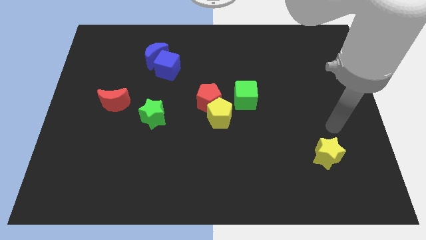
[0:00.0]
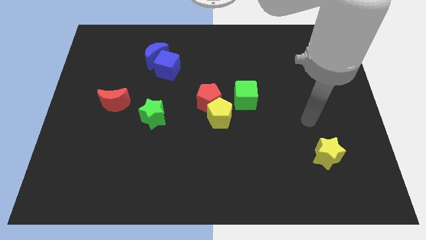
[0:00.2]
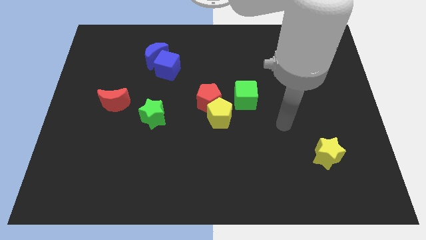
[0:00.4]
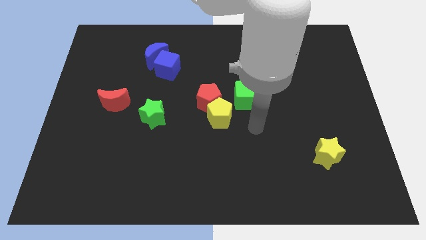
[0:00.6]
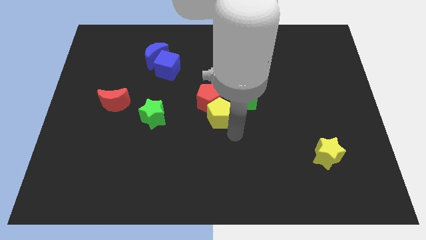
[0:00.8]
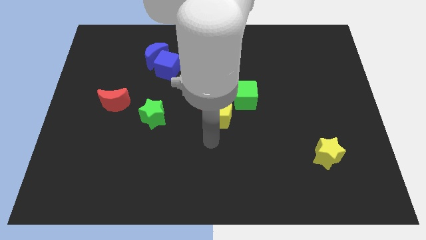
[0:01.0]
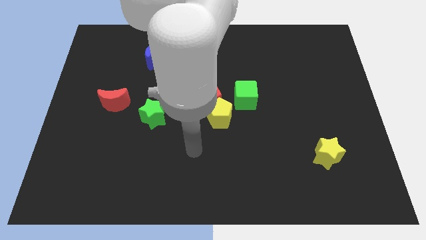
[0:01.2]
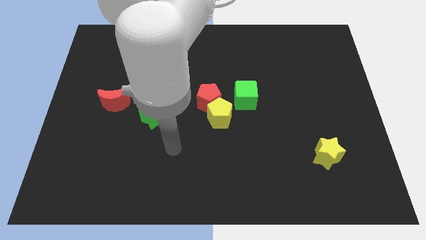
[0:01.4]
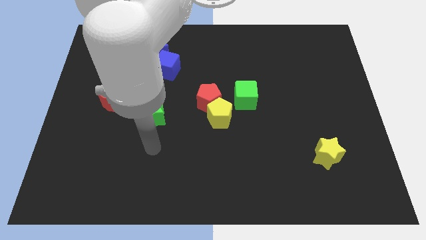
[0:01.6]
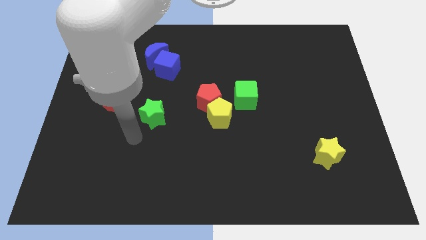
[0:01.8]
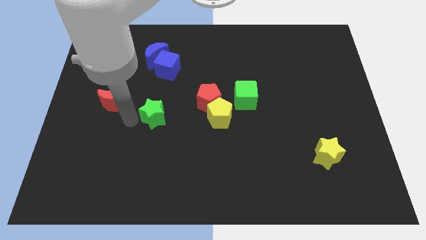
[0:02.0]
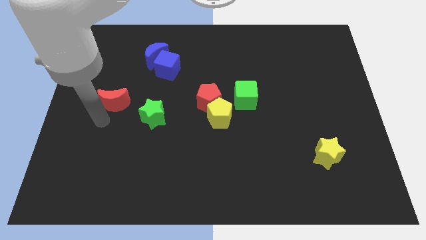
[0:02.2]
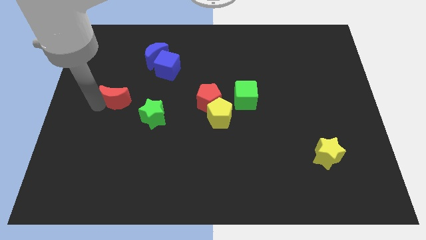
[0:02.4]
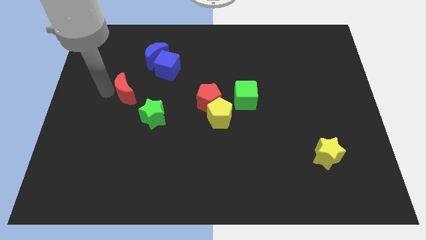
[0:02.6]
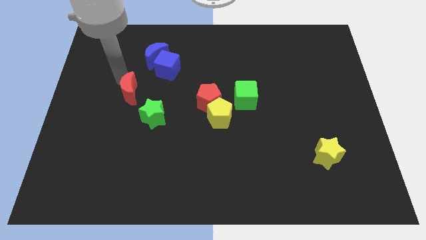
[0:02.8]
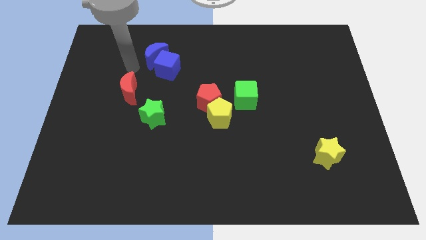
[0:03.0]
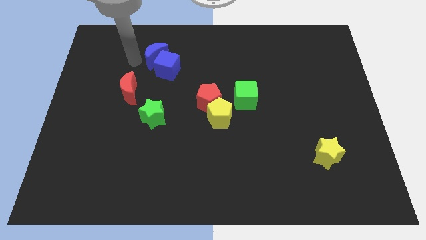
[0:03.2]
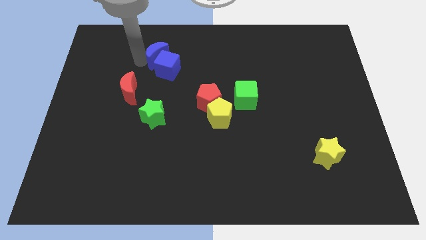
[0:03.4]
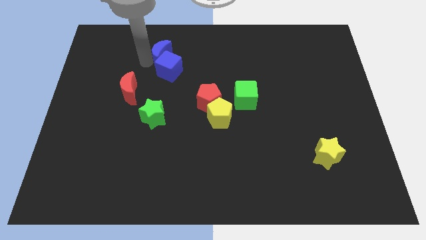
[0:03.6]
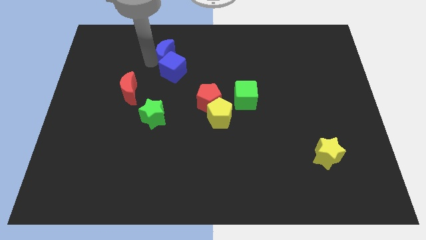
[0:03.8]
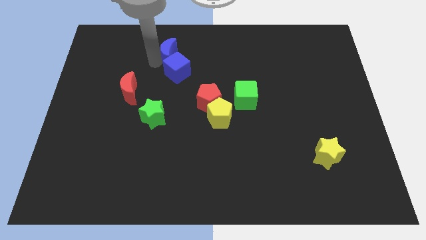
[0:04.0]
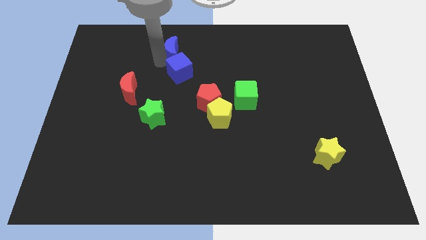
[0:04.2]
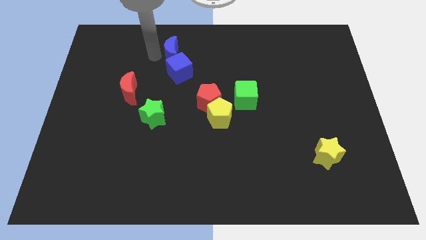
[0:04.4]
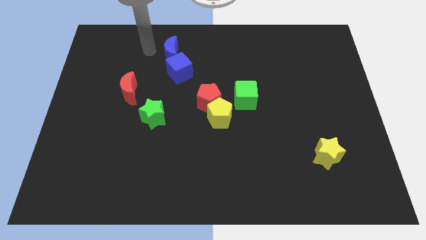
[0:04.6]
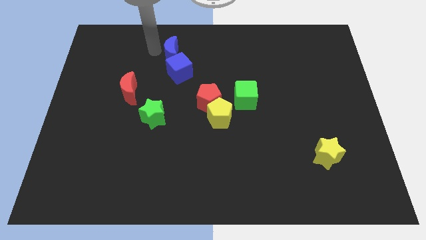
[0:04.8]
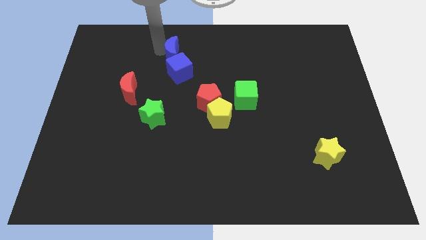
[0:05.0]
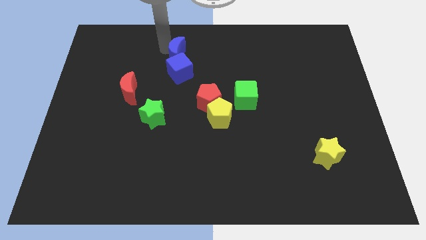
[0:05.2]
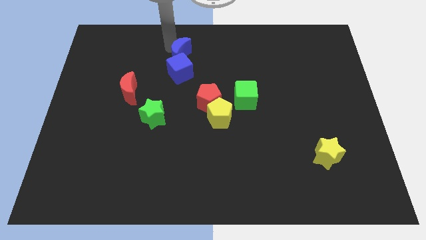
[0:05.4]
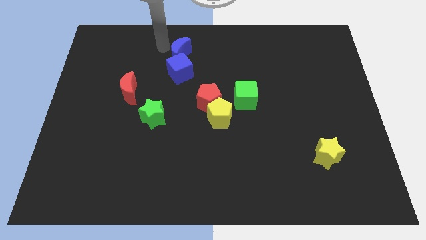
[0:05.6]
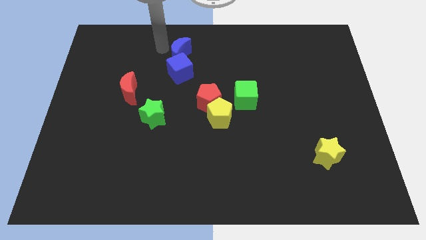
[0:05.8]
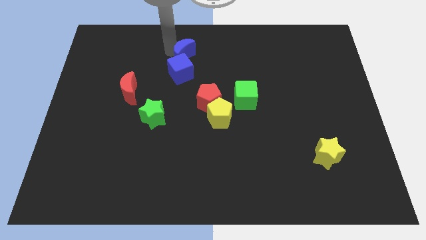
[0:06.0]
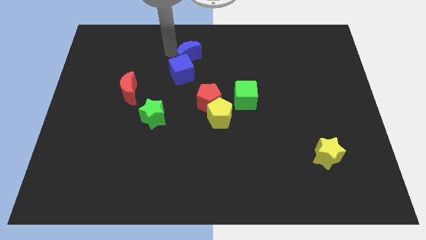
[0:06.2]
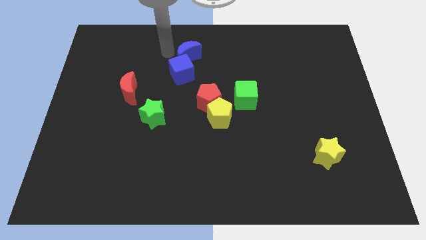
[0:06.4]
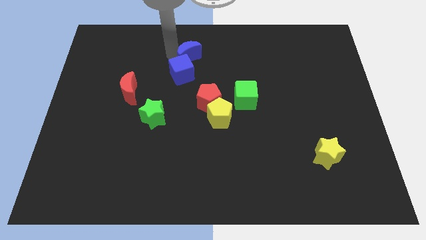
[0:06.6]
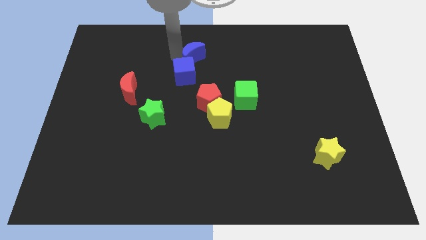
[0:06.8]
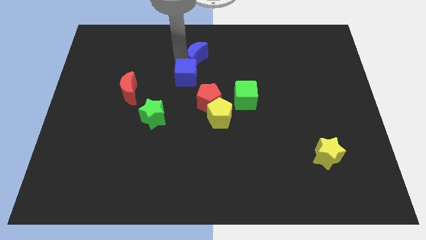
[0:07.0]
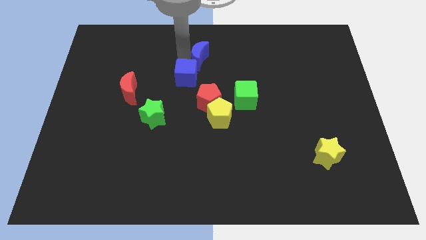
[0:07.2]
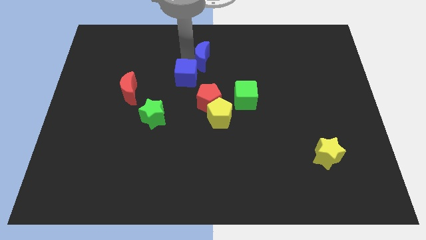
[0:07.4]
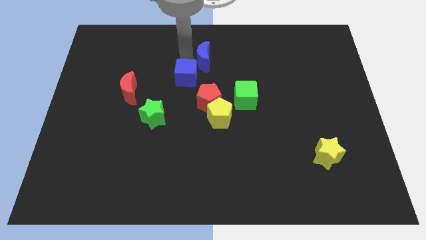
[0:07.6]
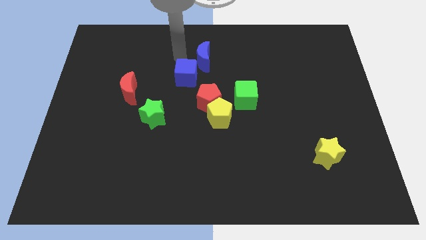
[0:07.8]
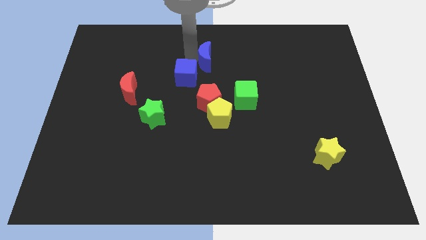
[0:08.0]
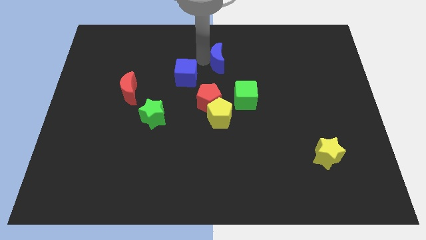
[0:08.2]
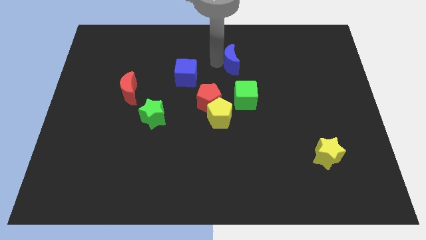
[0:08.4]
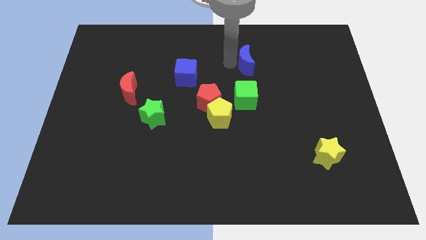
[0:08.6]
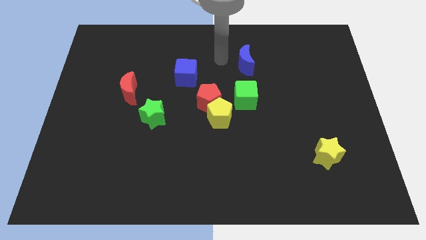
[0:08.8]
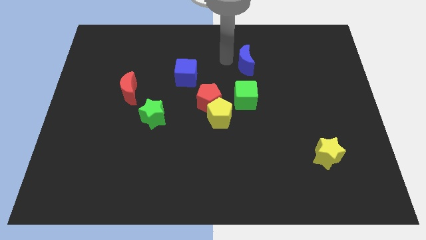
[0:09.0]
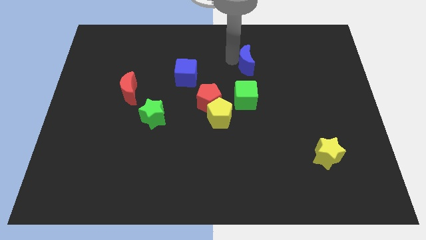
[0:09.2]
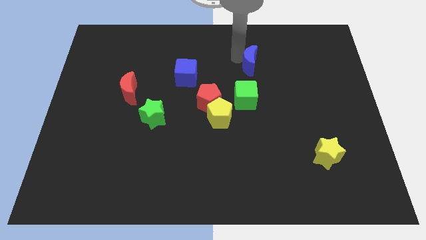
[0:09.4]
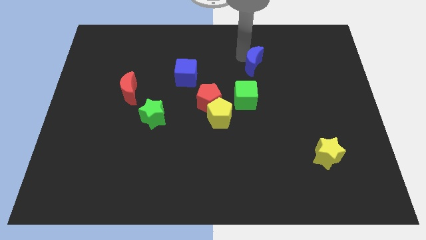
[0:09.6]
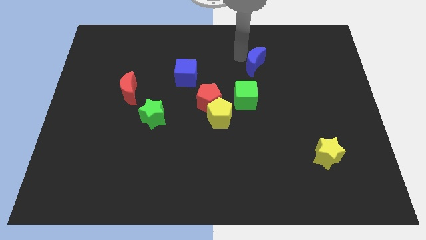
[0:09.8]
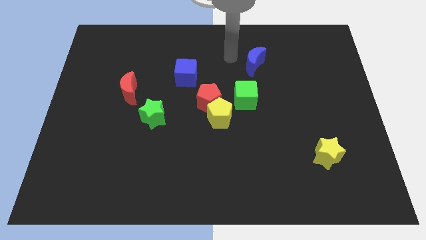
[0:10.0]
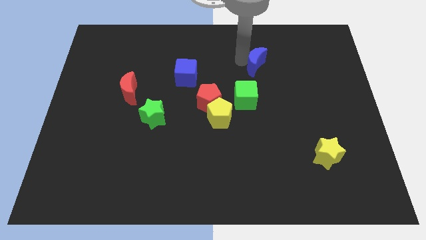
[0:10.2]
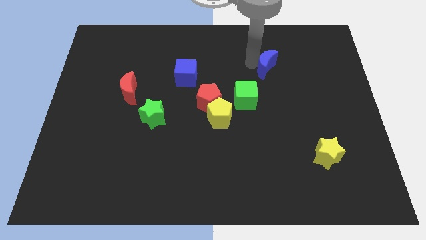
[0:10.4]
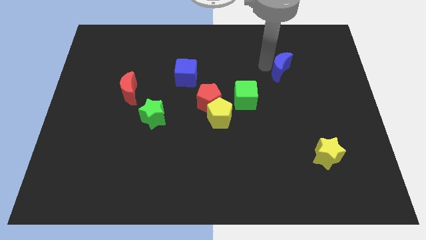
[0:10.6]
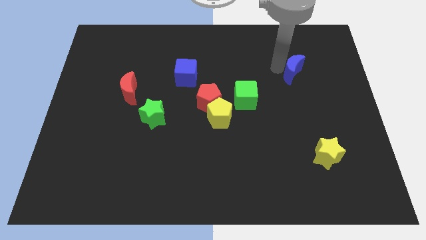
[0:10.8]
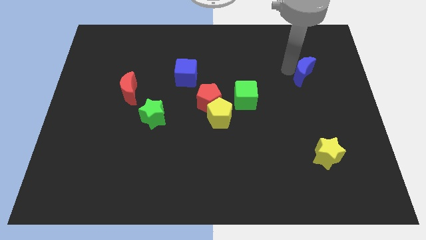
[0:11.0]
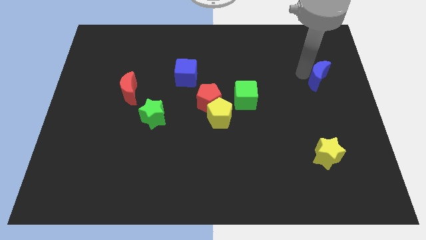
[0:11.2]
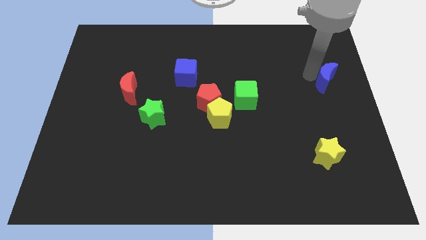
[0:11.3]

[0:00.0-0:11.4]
put the blue moon to the right side of the board

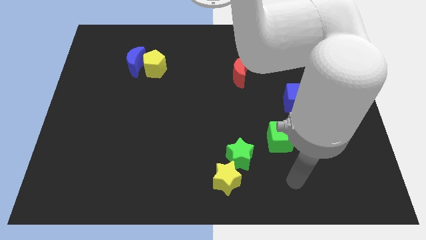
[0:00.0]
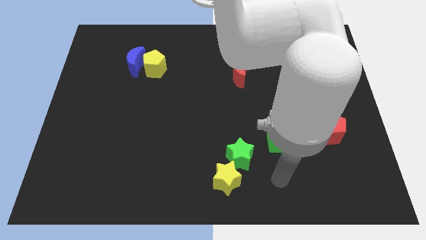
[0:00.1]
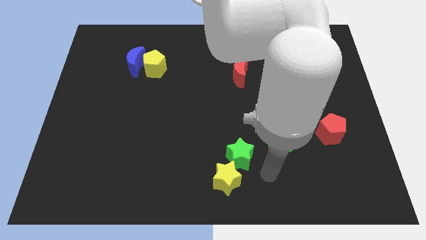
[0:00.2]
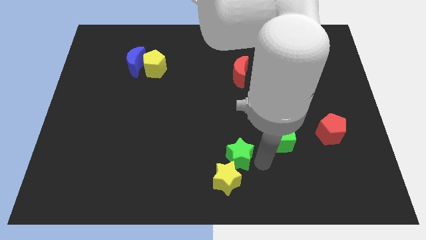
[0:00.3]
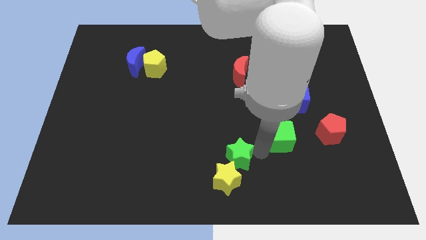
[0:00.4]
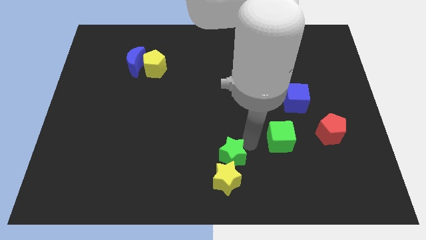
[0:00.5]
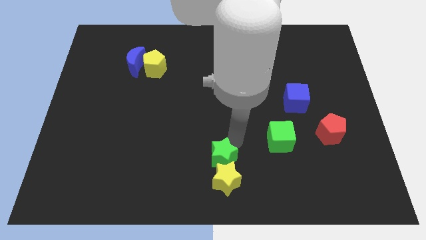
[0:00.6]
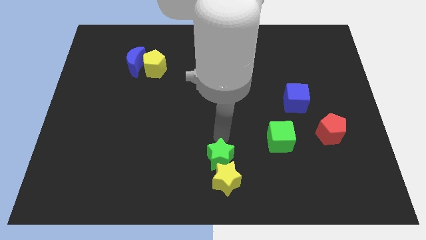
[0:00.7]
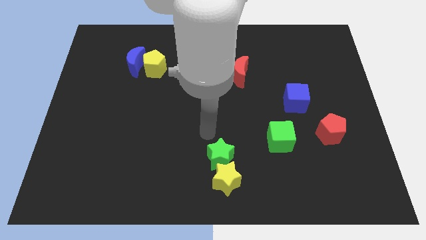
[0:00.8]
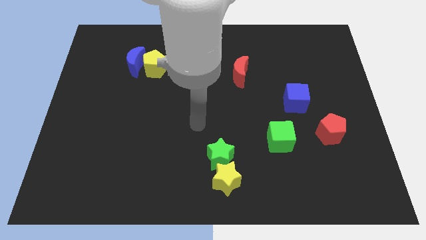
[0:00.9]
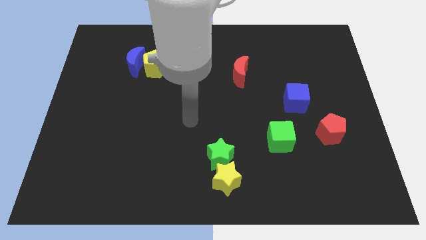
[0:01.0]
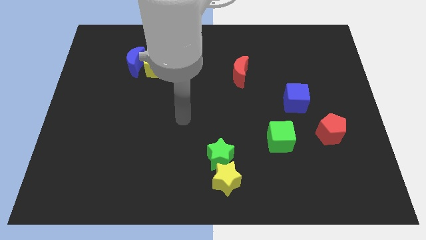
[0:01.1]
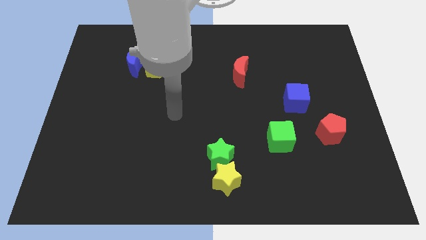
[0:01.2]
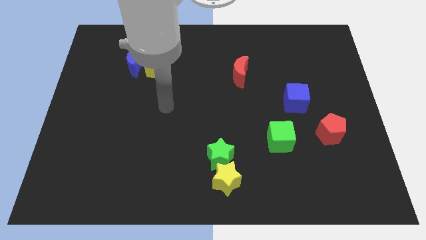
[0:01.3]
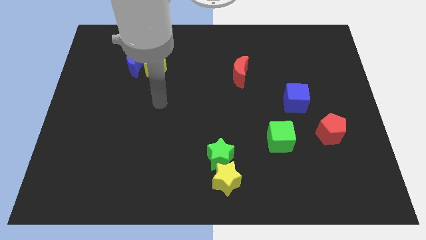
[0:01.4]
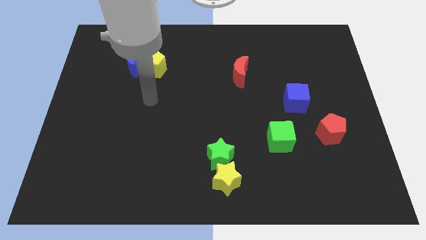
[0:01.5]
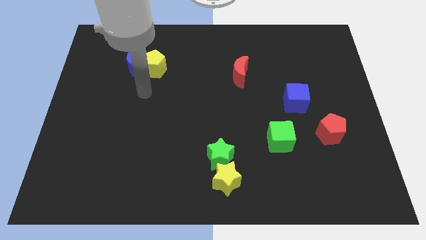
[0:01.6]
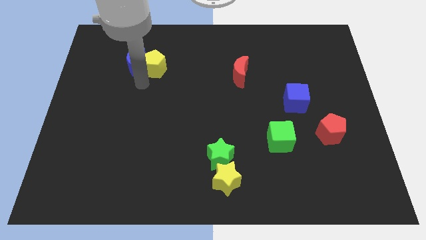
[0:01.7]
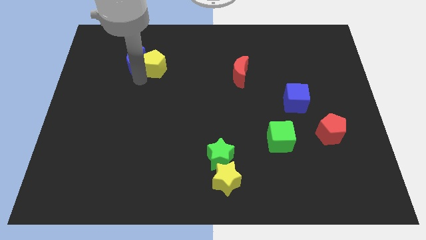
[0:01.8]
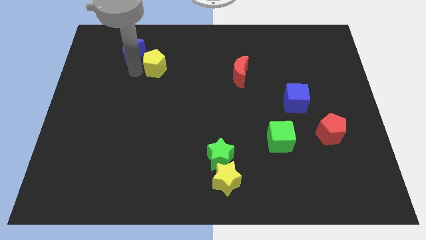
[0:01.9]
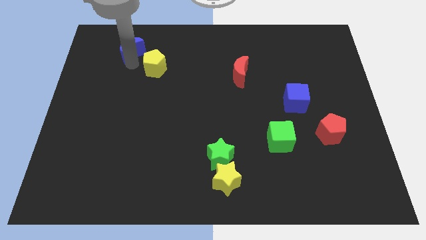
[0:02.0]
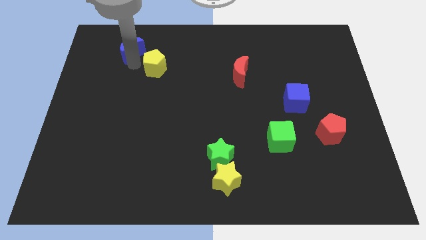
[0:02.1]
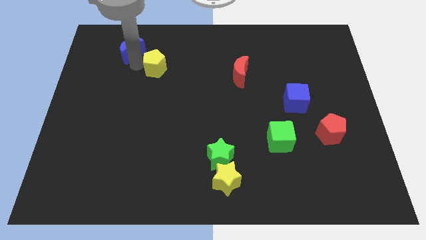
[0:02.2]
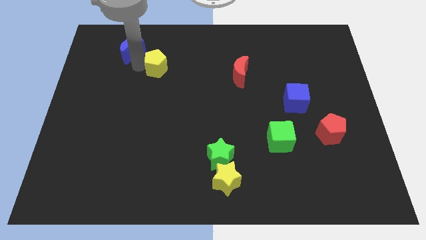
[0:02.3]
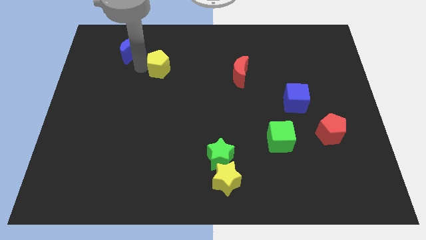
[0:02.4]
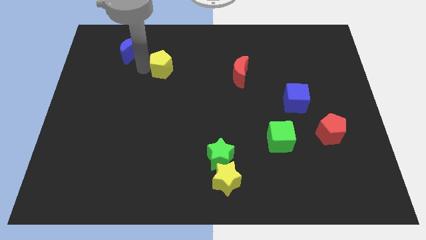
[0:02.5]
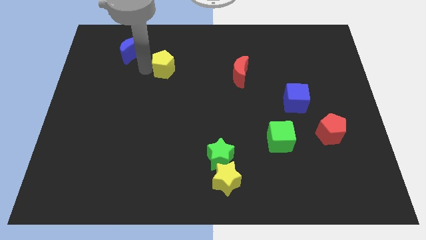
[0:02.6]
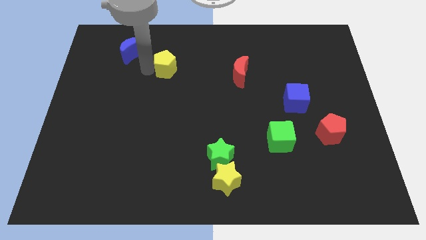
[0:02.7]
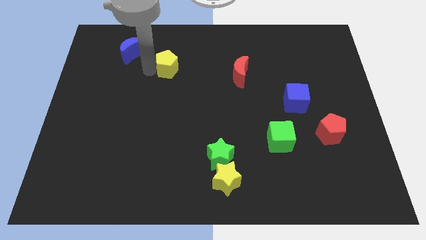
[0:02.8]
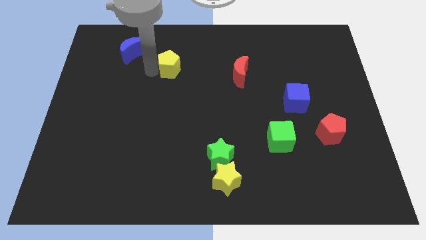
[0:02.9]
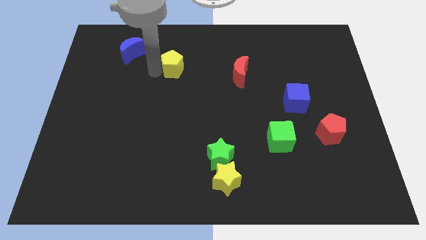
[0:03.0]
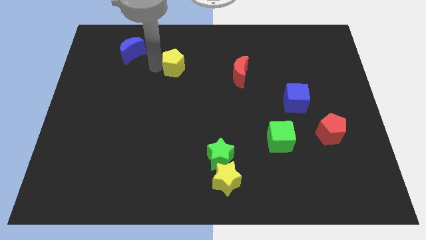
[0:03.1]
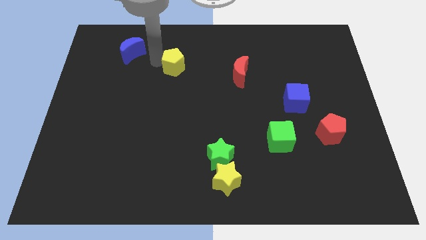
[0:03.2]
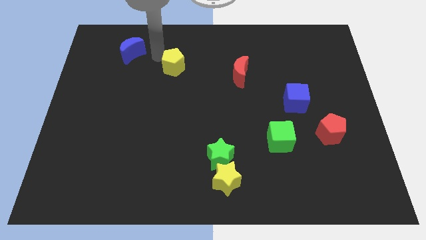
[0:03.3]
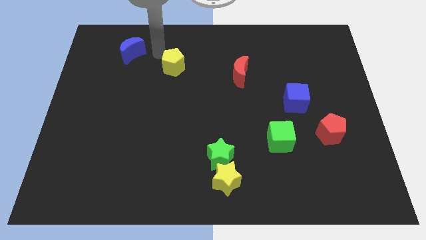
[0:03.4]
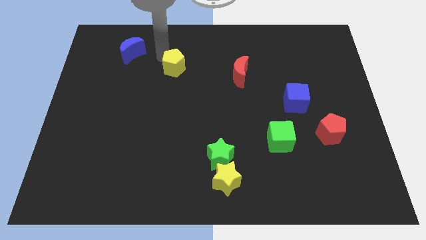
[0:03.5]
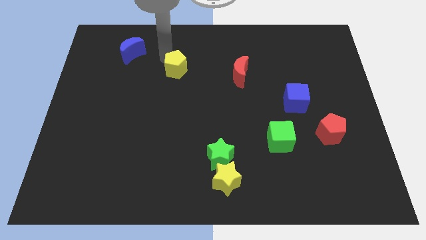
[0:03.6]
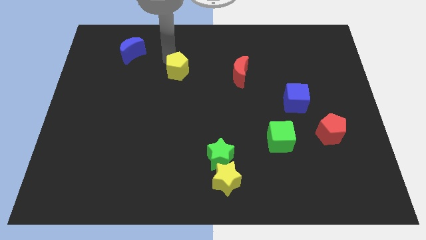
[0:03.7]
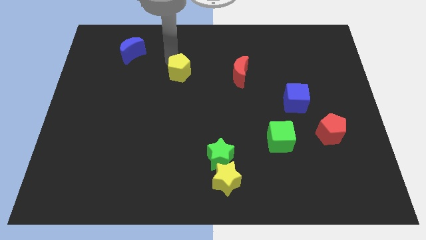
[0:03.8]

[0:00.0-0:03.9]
put the yellow pentagon to the center of the board
